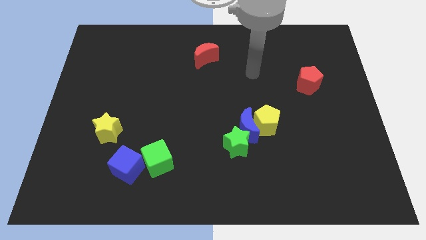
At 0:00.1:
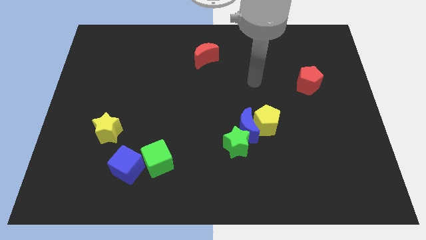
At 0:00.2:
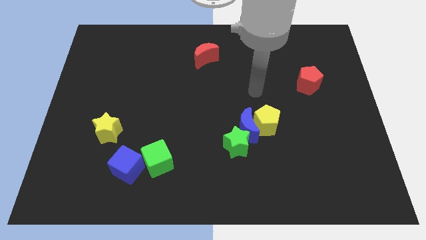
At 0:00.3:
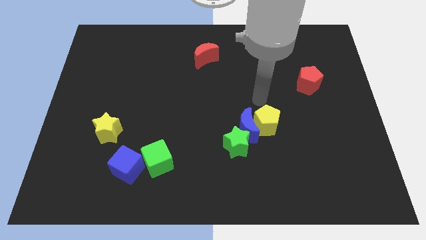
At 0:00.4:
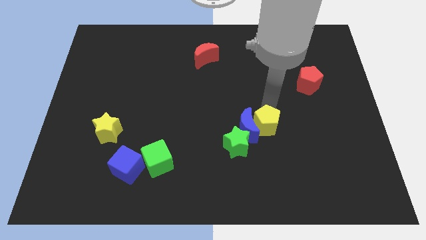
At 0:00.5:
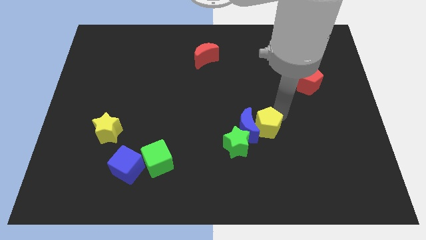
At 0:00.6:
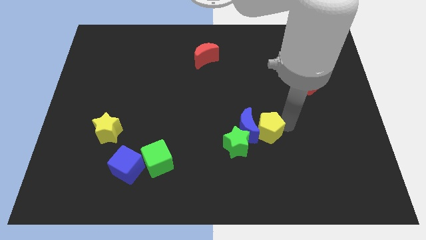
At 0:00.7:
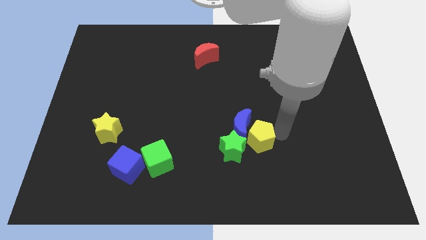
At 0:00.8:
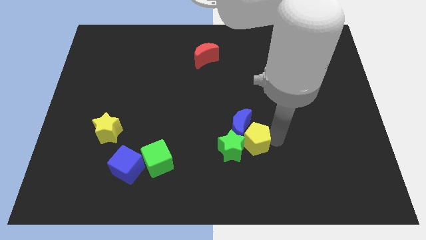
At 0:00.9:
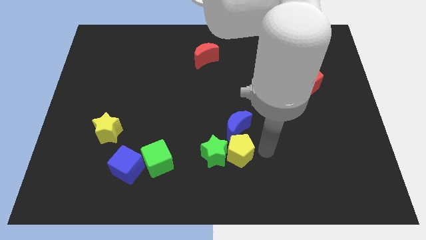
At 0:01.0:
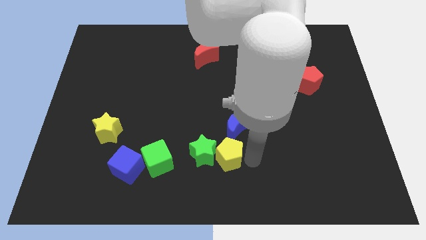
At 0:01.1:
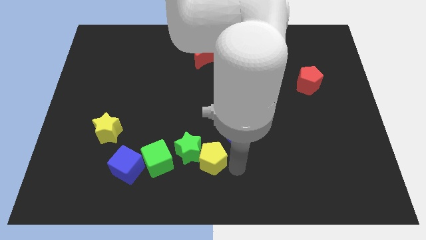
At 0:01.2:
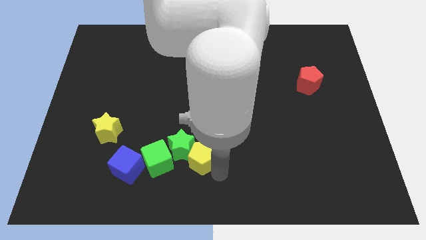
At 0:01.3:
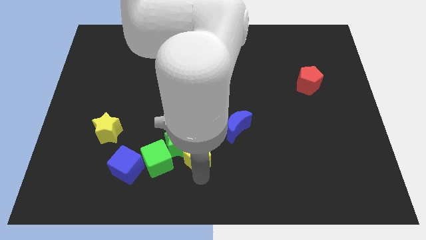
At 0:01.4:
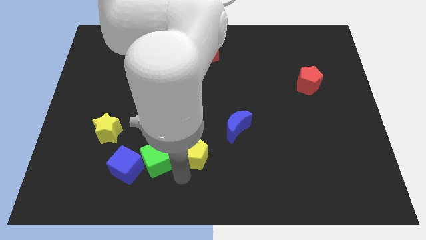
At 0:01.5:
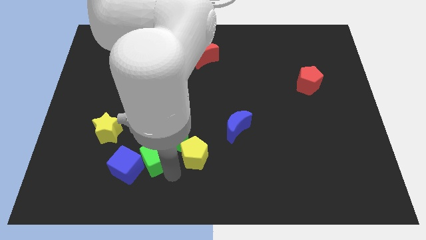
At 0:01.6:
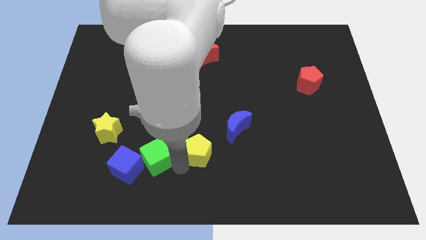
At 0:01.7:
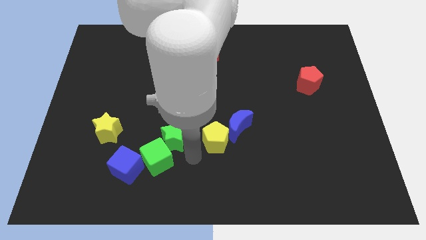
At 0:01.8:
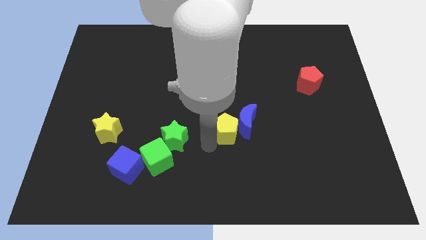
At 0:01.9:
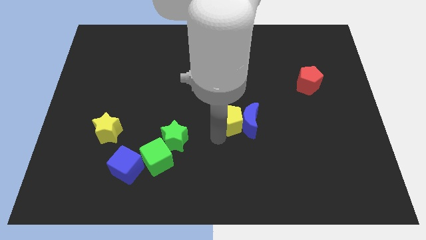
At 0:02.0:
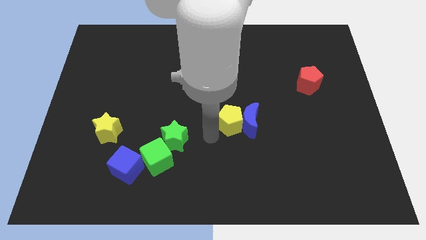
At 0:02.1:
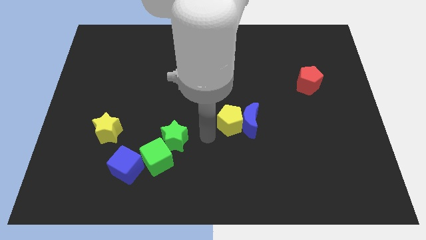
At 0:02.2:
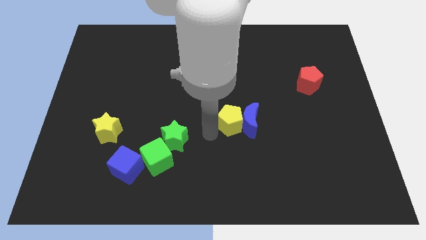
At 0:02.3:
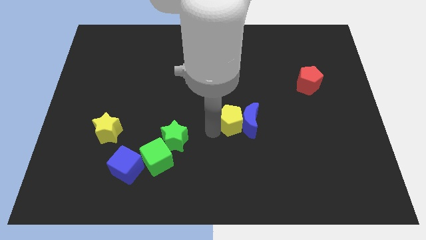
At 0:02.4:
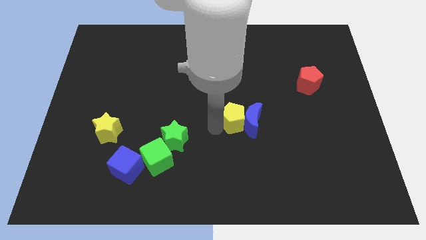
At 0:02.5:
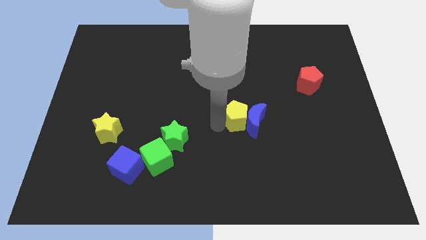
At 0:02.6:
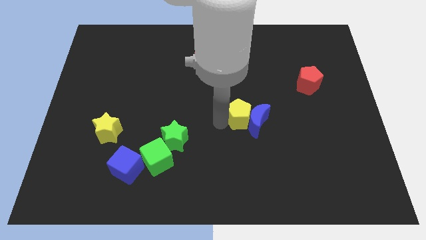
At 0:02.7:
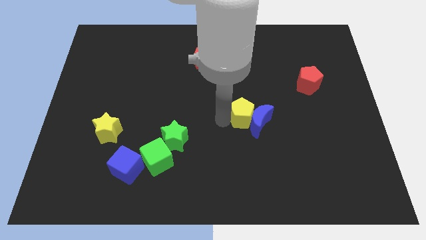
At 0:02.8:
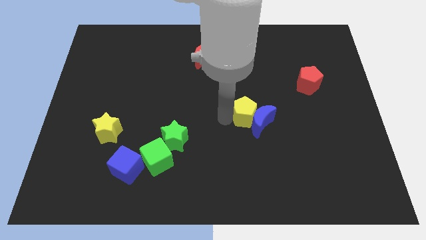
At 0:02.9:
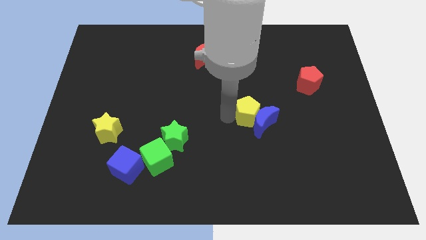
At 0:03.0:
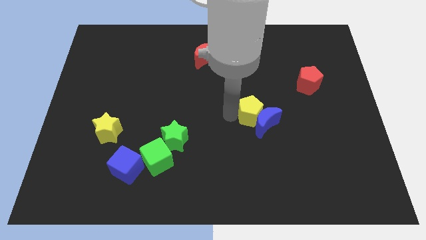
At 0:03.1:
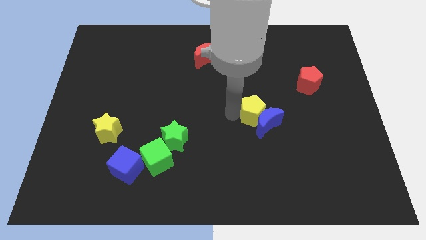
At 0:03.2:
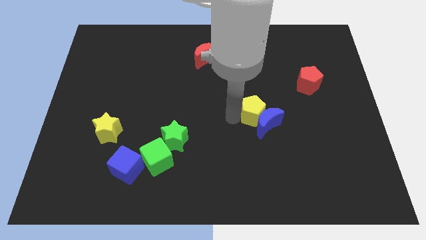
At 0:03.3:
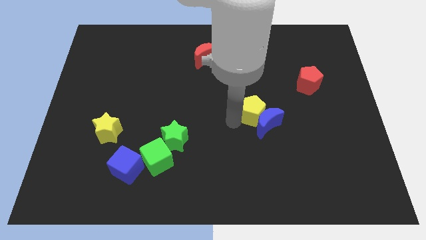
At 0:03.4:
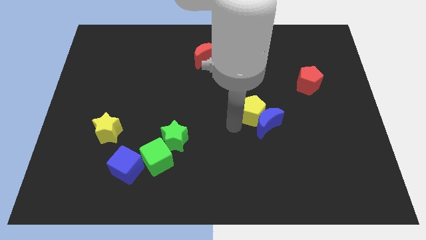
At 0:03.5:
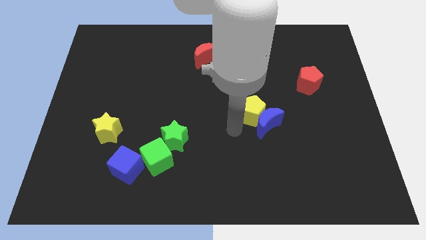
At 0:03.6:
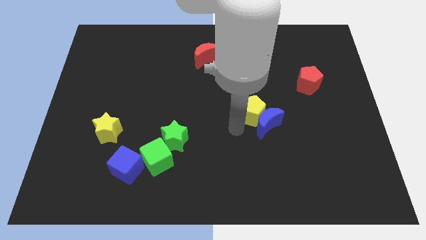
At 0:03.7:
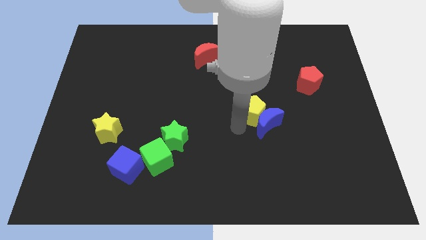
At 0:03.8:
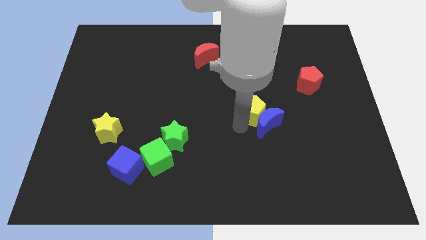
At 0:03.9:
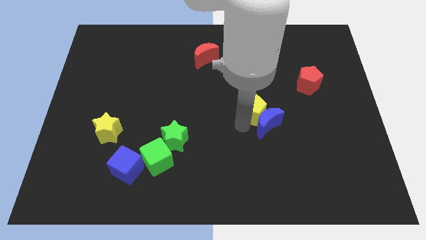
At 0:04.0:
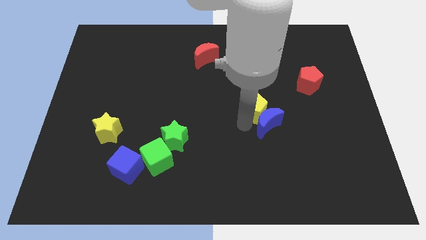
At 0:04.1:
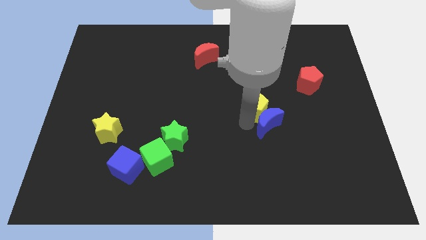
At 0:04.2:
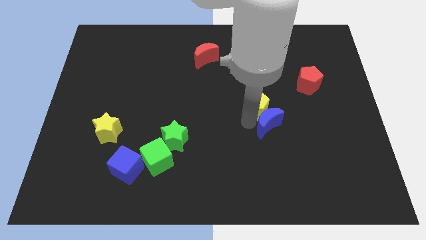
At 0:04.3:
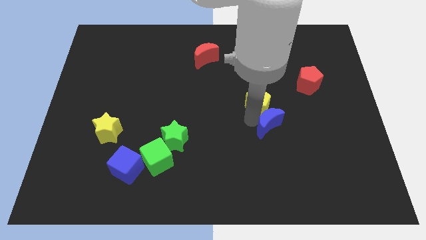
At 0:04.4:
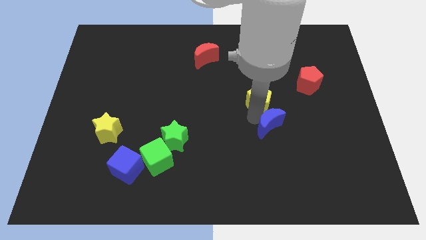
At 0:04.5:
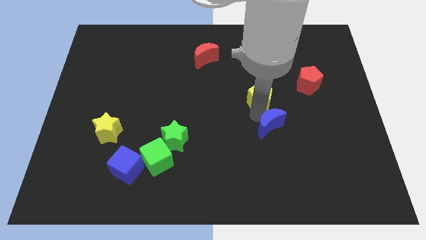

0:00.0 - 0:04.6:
slightly push the yellow pentagon upwards

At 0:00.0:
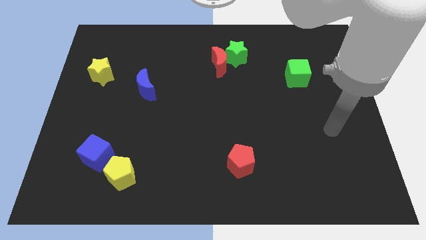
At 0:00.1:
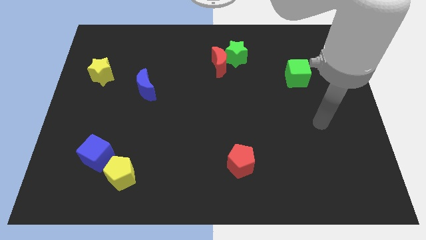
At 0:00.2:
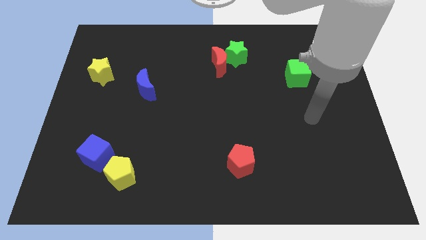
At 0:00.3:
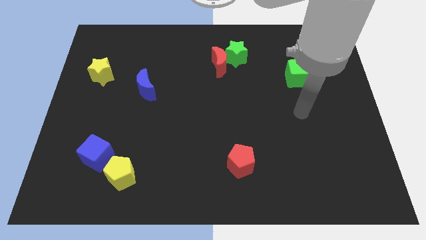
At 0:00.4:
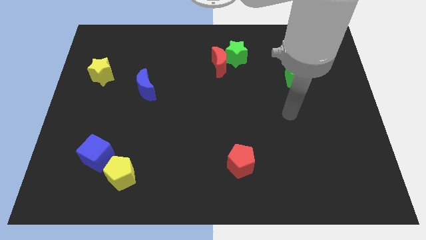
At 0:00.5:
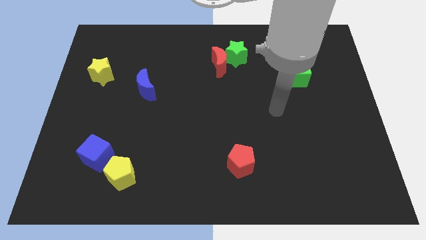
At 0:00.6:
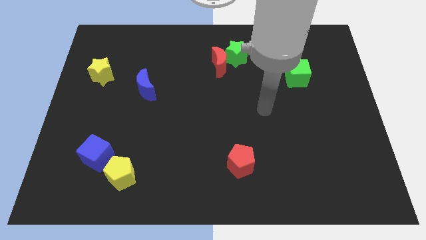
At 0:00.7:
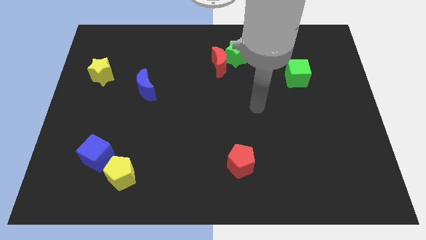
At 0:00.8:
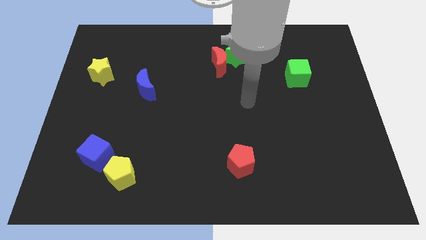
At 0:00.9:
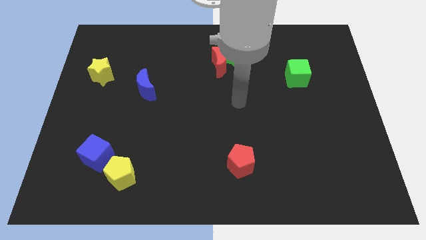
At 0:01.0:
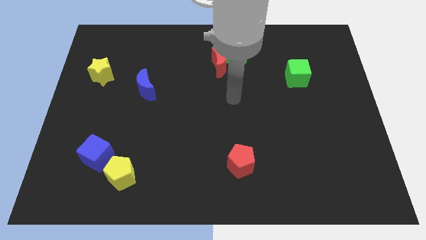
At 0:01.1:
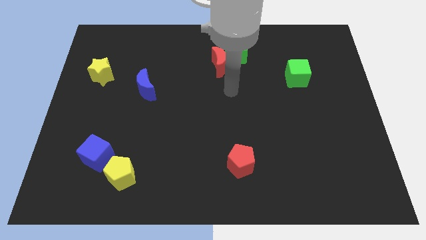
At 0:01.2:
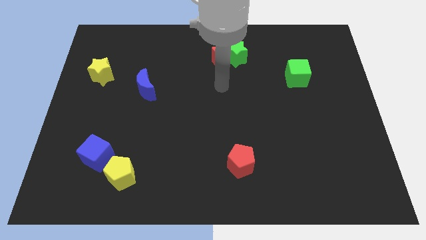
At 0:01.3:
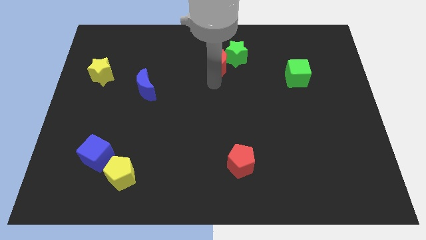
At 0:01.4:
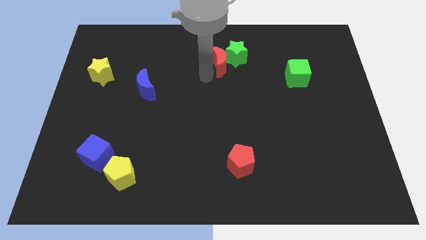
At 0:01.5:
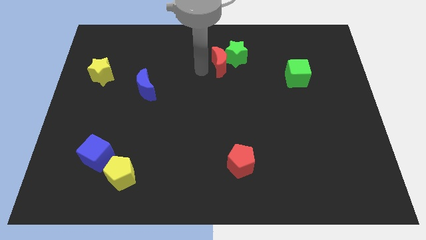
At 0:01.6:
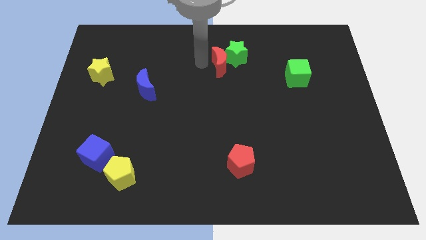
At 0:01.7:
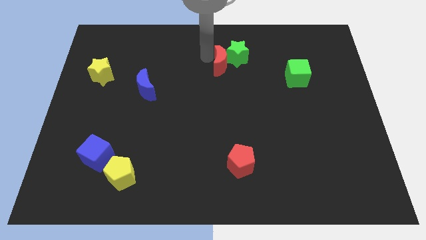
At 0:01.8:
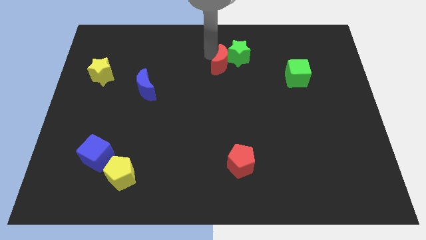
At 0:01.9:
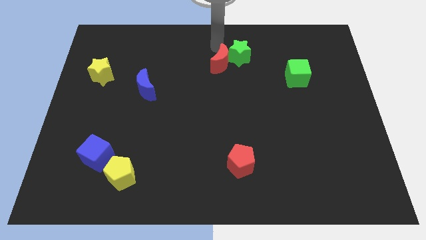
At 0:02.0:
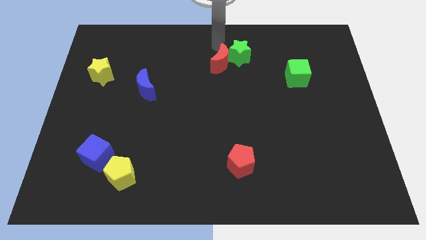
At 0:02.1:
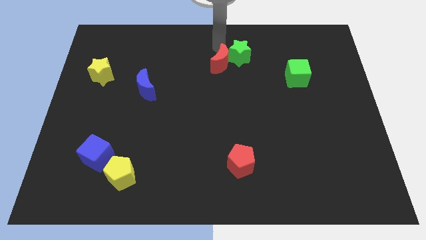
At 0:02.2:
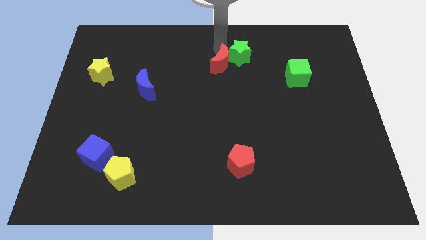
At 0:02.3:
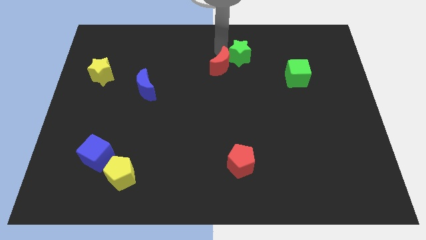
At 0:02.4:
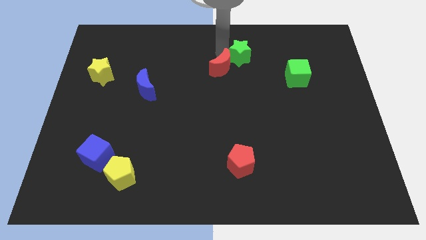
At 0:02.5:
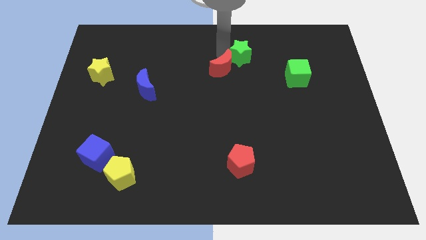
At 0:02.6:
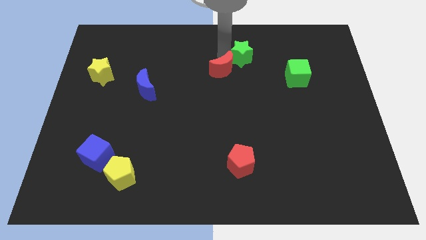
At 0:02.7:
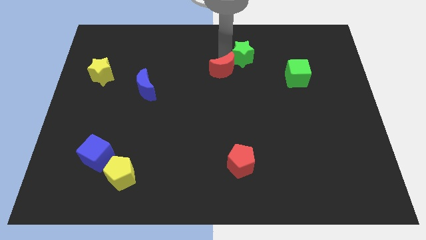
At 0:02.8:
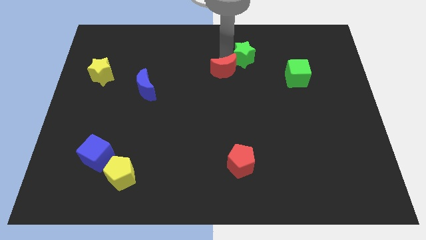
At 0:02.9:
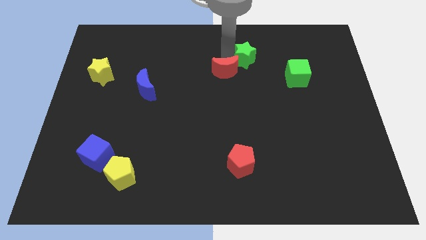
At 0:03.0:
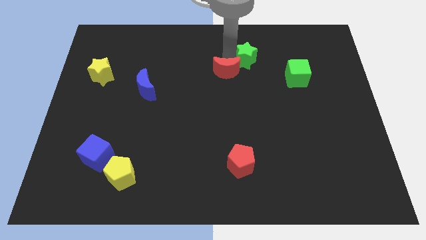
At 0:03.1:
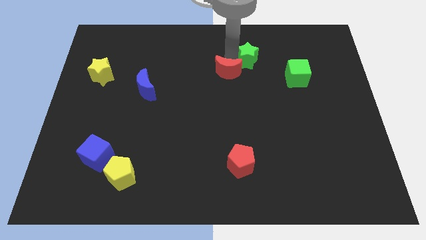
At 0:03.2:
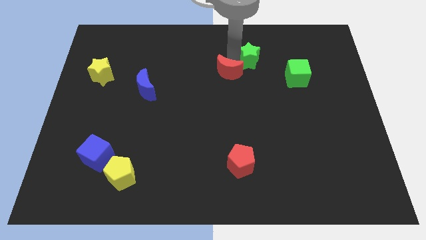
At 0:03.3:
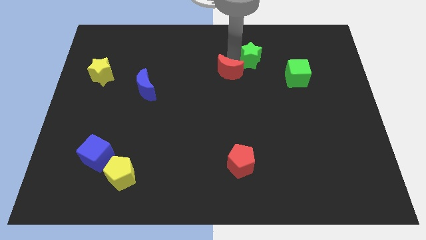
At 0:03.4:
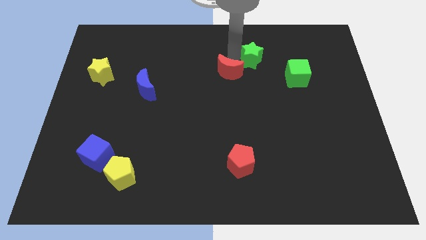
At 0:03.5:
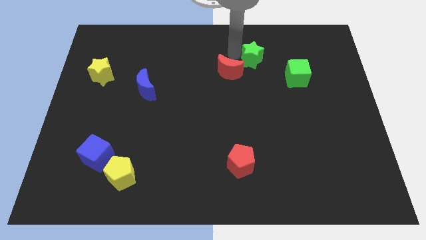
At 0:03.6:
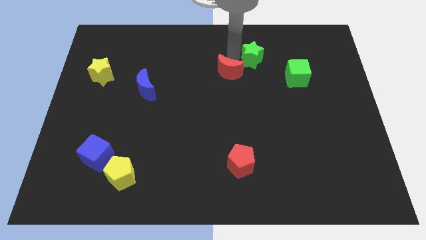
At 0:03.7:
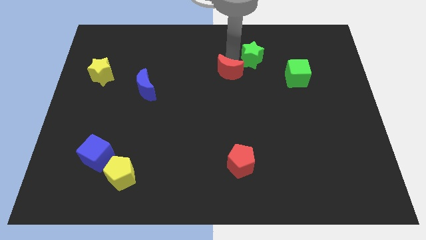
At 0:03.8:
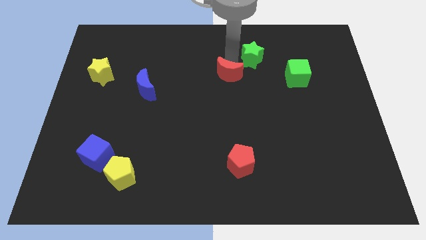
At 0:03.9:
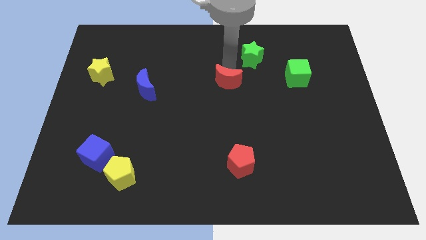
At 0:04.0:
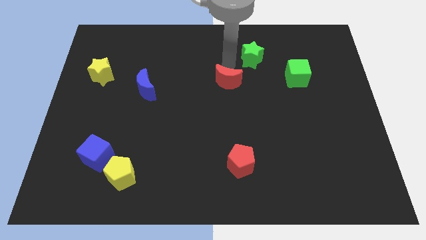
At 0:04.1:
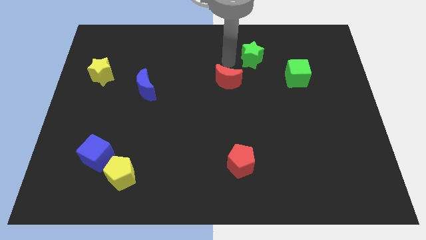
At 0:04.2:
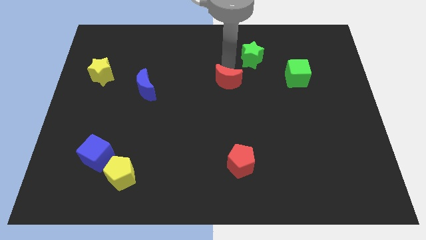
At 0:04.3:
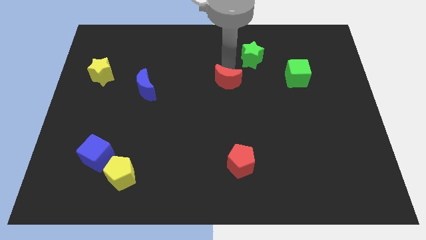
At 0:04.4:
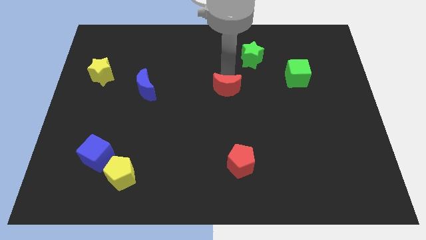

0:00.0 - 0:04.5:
slide the red moon a little bit down
